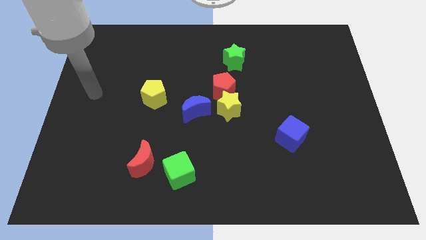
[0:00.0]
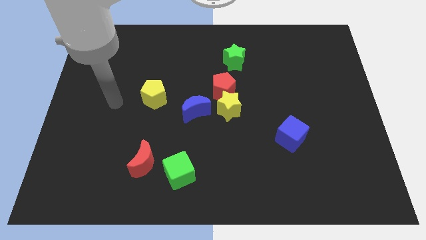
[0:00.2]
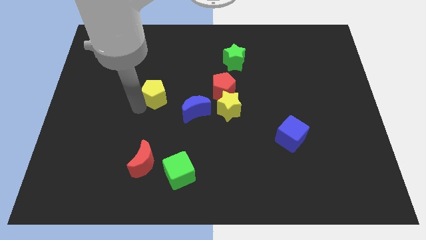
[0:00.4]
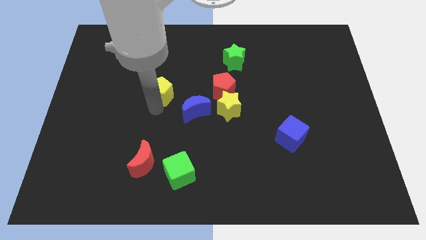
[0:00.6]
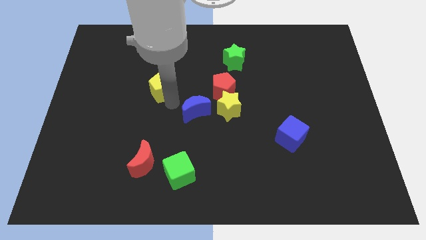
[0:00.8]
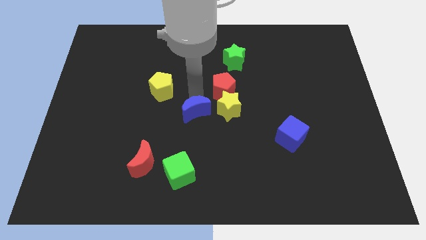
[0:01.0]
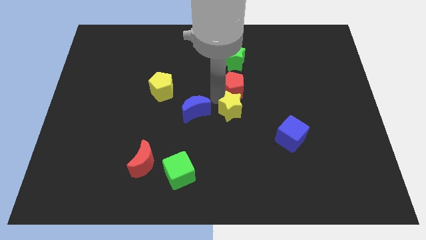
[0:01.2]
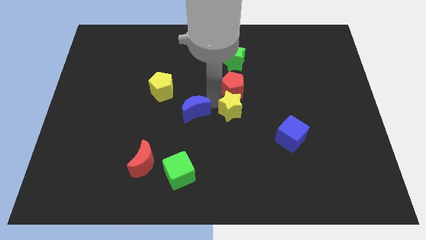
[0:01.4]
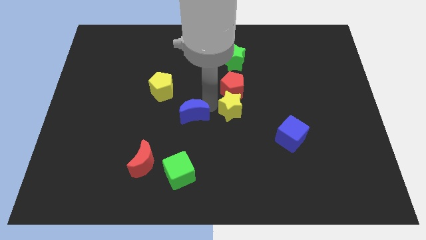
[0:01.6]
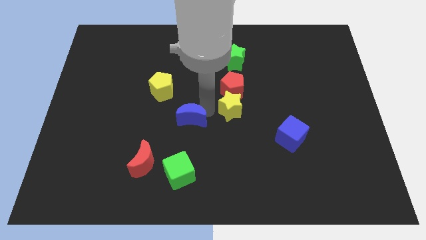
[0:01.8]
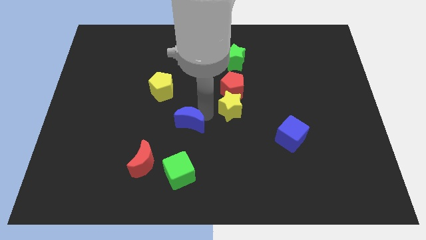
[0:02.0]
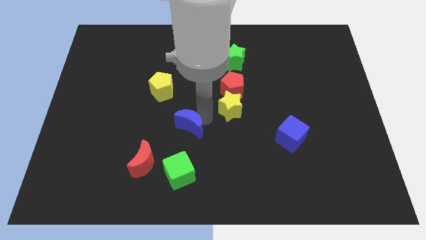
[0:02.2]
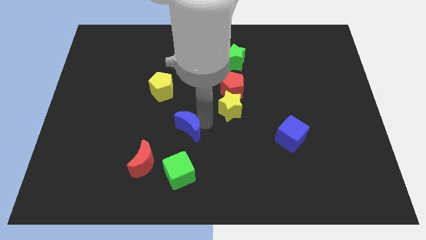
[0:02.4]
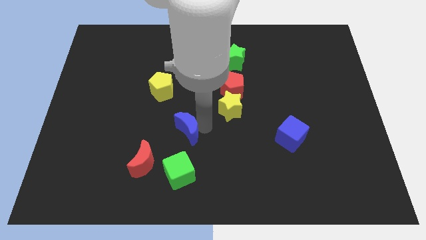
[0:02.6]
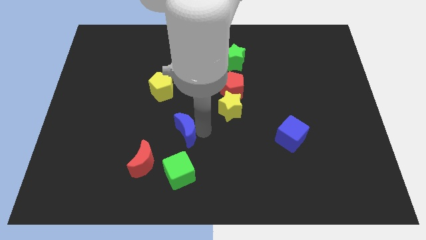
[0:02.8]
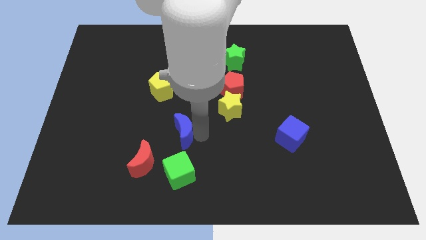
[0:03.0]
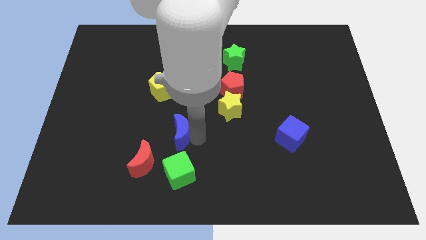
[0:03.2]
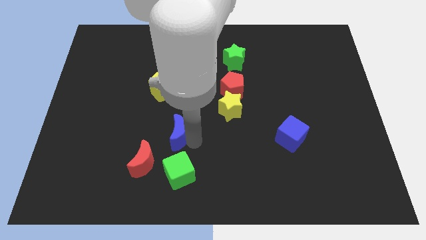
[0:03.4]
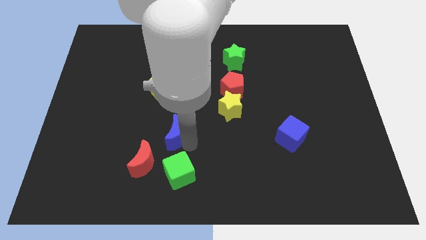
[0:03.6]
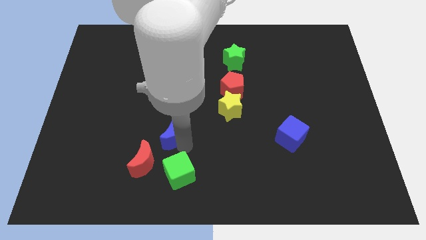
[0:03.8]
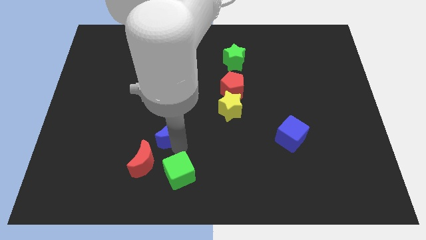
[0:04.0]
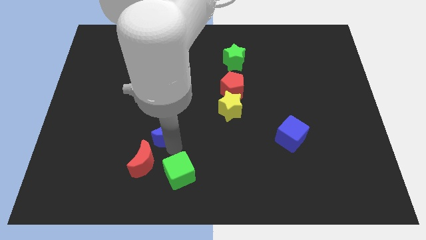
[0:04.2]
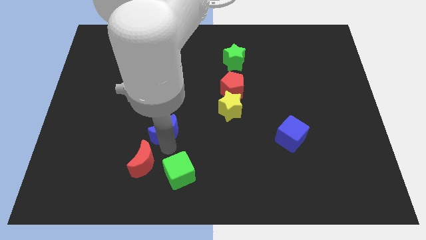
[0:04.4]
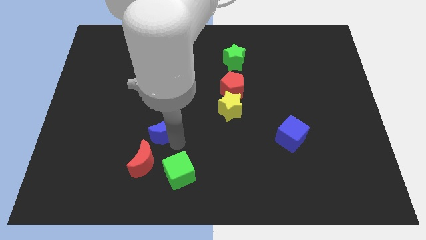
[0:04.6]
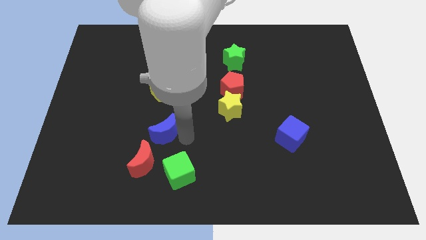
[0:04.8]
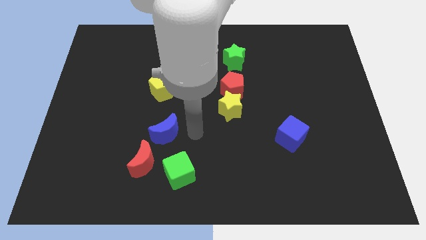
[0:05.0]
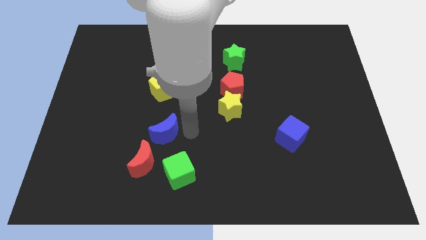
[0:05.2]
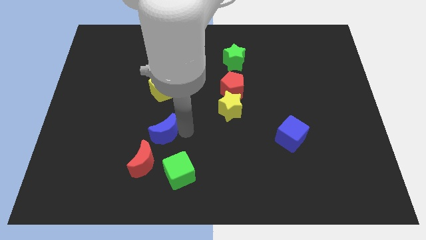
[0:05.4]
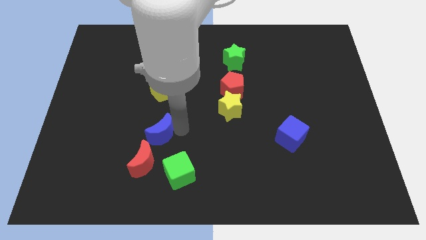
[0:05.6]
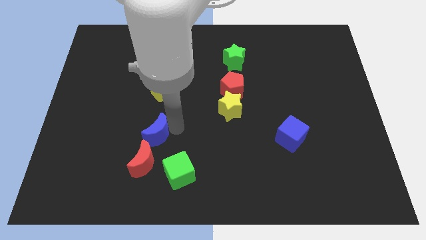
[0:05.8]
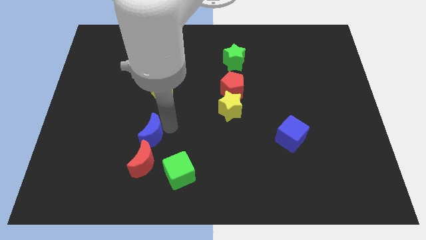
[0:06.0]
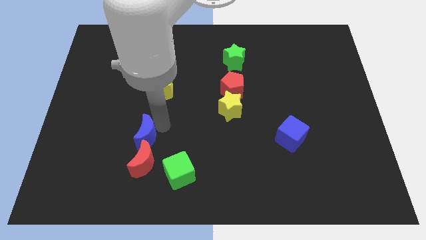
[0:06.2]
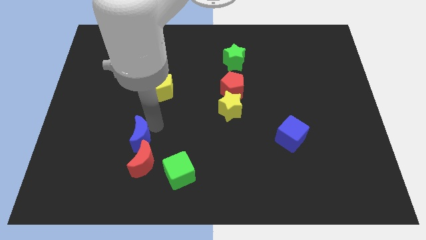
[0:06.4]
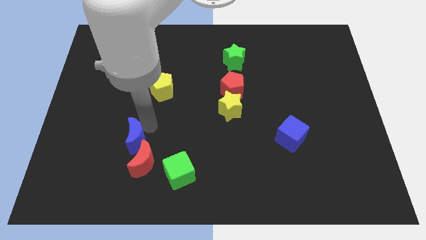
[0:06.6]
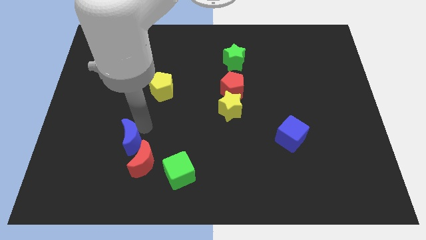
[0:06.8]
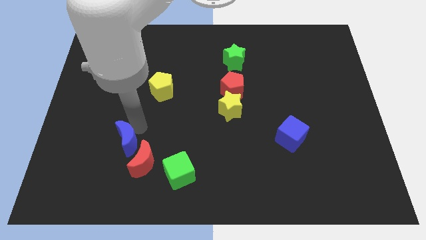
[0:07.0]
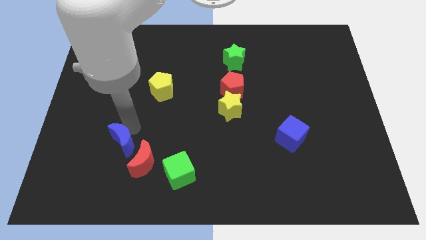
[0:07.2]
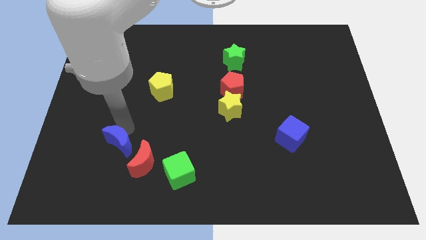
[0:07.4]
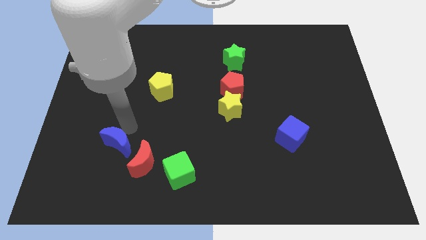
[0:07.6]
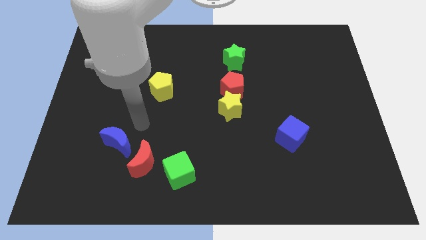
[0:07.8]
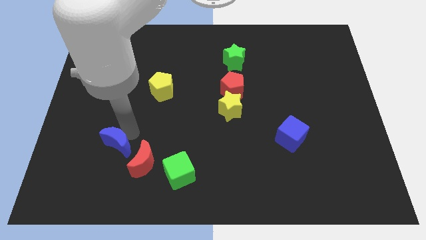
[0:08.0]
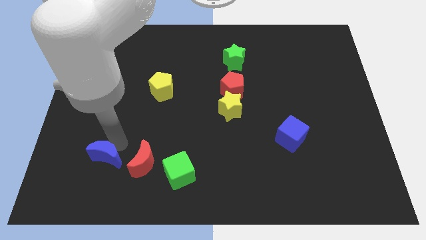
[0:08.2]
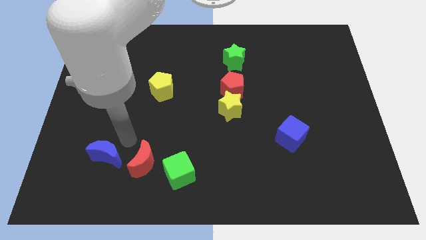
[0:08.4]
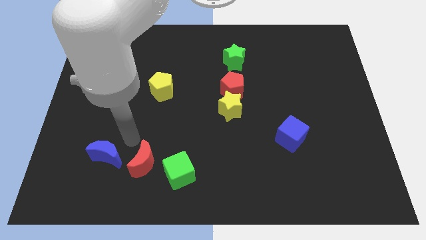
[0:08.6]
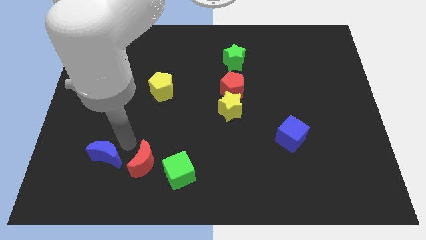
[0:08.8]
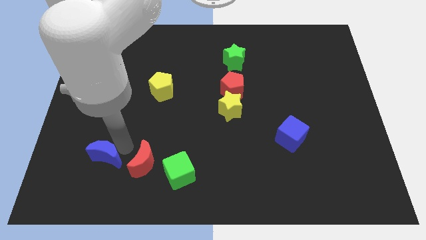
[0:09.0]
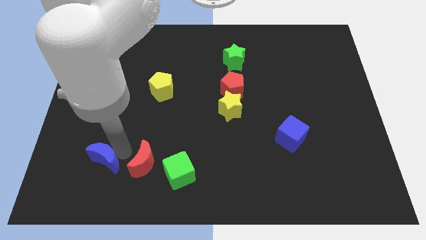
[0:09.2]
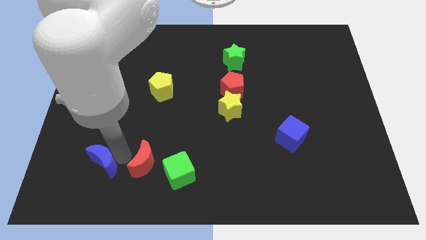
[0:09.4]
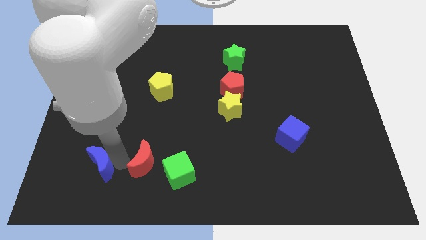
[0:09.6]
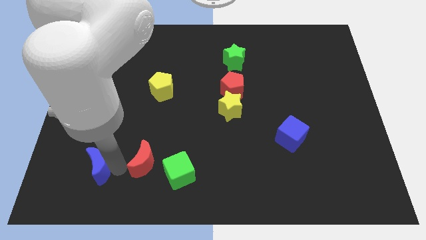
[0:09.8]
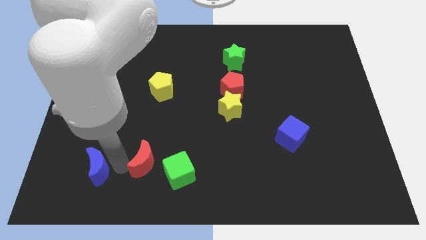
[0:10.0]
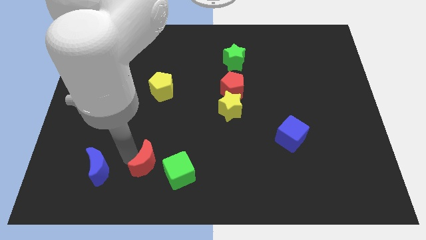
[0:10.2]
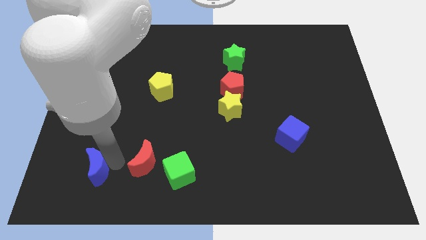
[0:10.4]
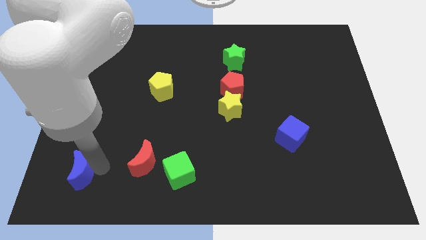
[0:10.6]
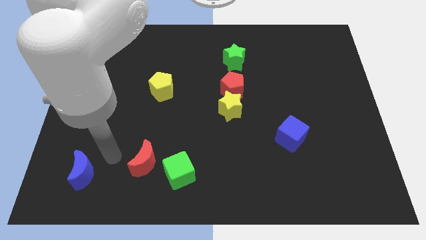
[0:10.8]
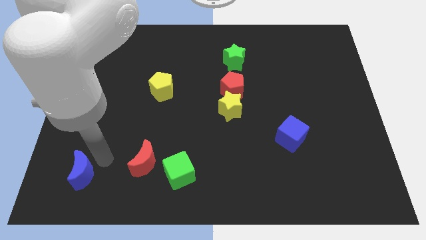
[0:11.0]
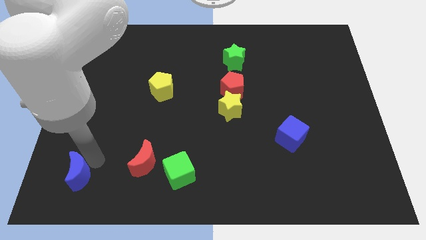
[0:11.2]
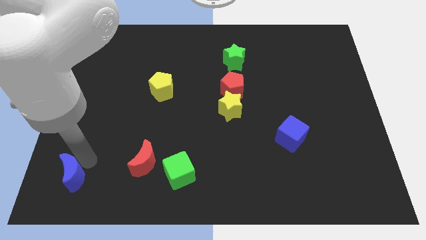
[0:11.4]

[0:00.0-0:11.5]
move the blue moon to the bottom left corner

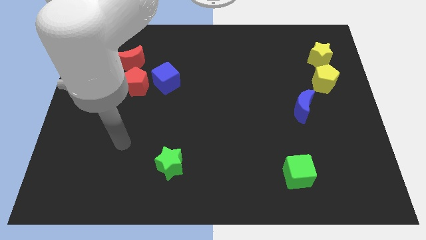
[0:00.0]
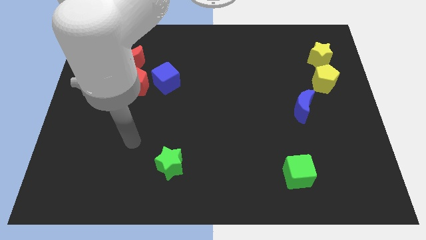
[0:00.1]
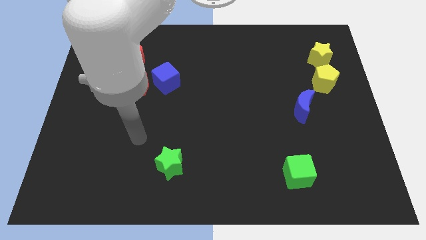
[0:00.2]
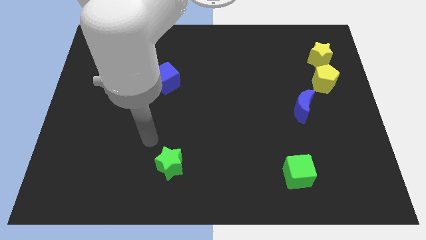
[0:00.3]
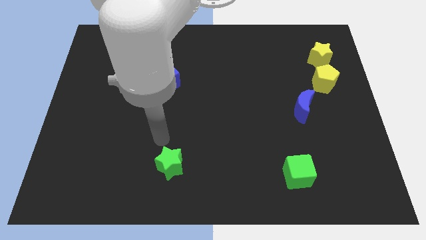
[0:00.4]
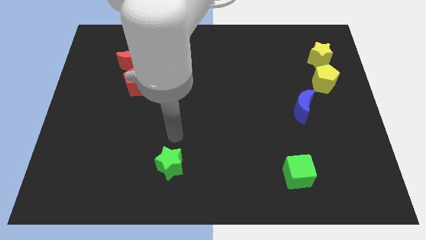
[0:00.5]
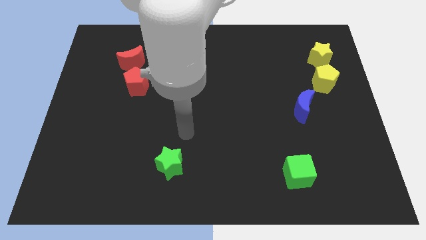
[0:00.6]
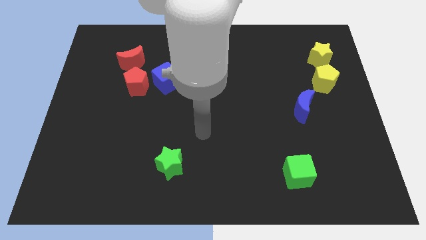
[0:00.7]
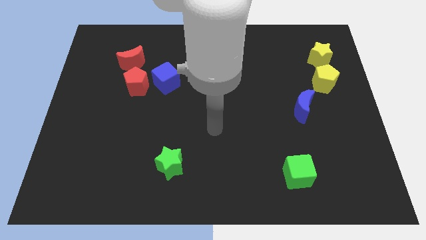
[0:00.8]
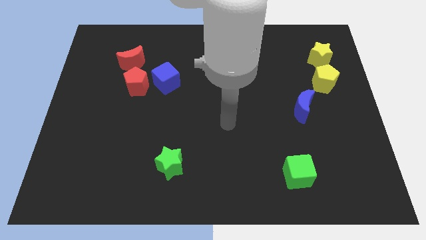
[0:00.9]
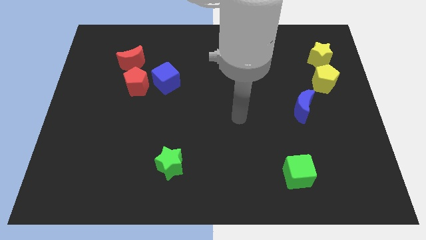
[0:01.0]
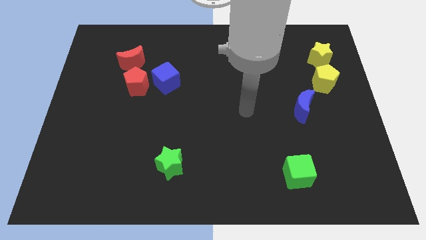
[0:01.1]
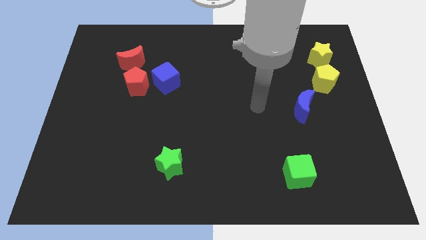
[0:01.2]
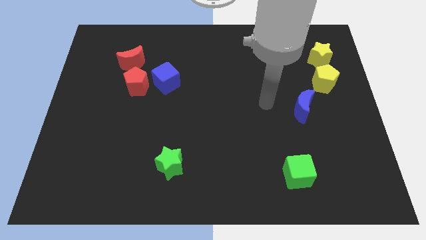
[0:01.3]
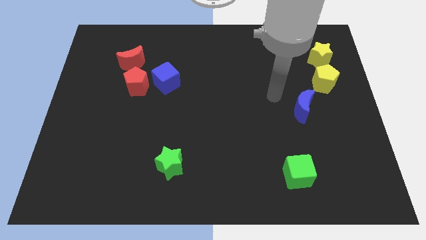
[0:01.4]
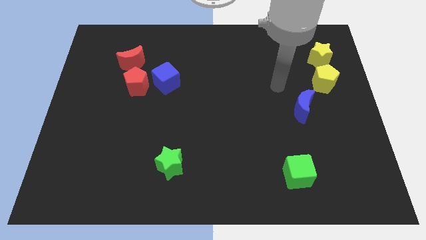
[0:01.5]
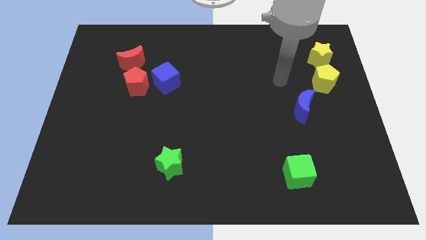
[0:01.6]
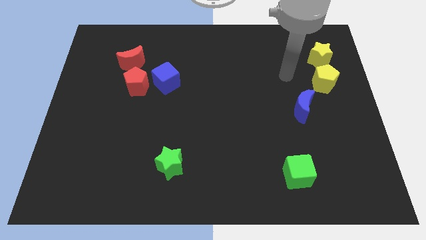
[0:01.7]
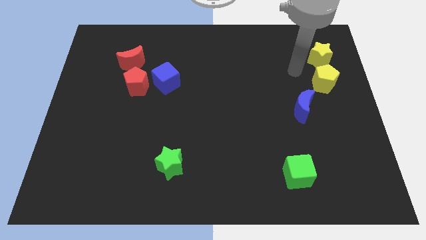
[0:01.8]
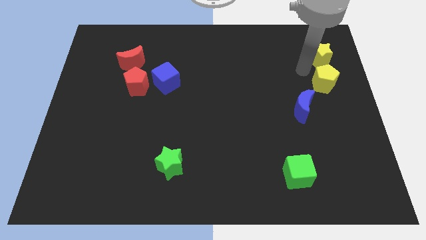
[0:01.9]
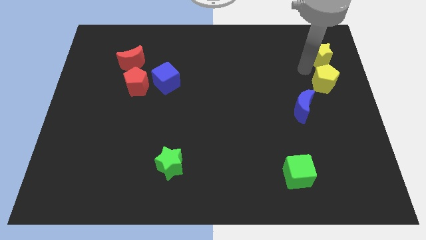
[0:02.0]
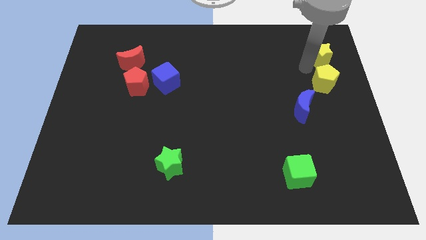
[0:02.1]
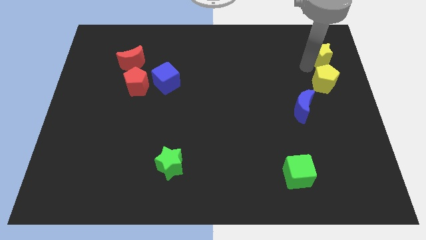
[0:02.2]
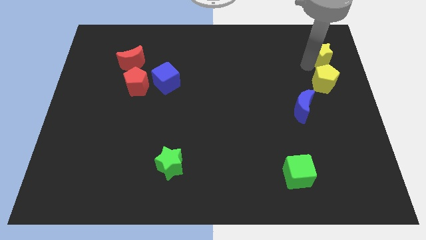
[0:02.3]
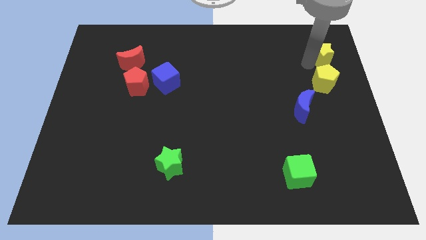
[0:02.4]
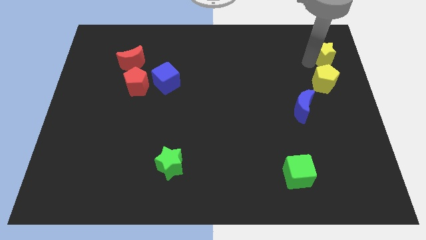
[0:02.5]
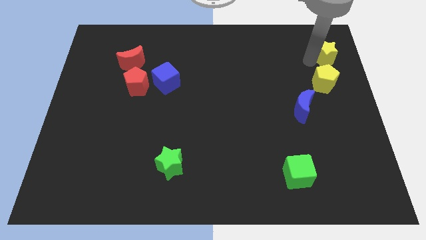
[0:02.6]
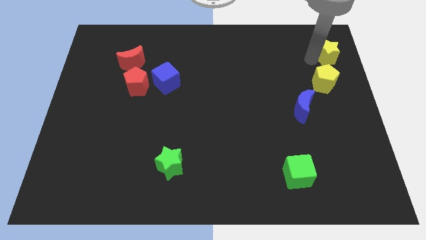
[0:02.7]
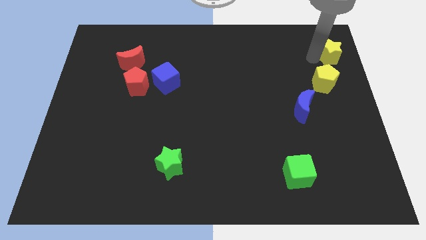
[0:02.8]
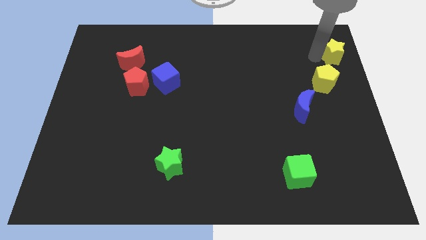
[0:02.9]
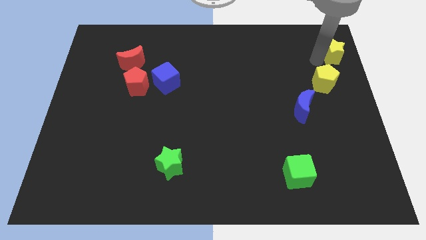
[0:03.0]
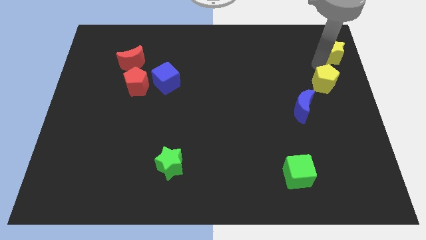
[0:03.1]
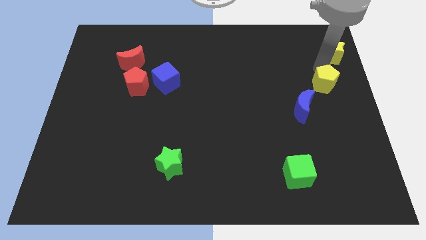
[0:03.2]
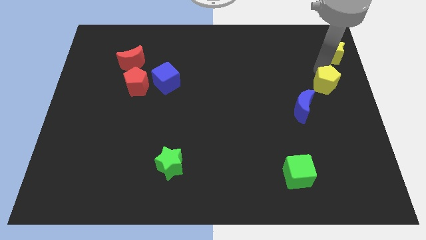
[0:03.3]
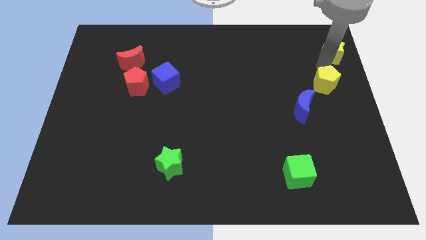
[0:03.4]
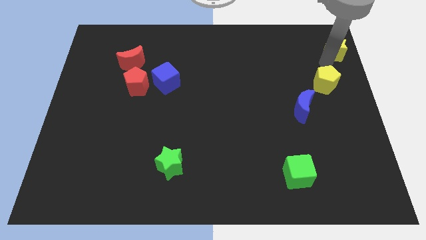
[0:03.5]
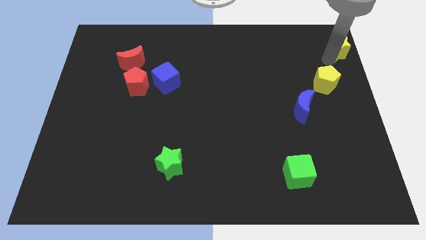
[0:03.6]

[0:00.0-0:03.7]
push the yellow star to the top right of the board
